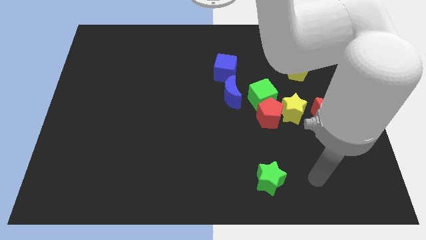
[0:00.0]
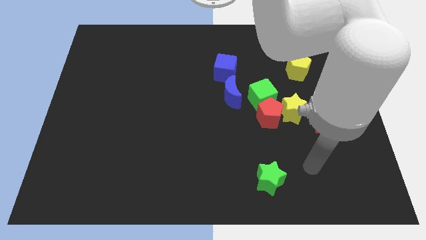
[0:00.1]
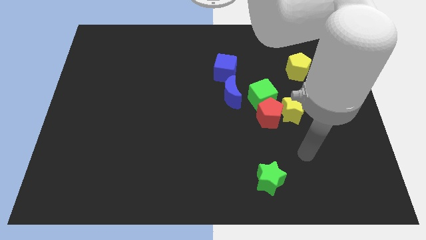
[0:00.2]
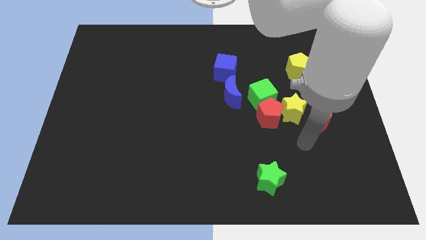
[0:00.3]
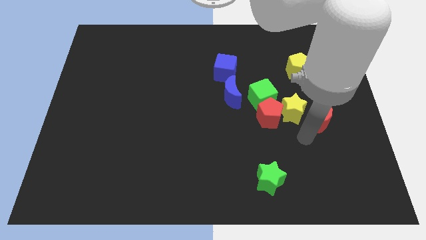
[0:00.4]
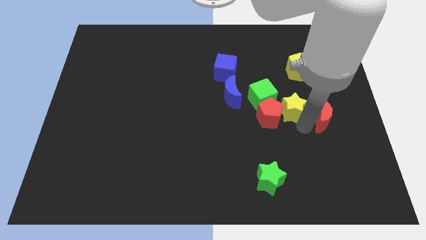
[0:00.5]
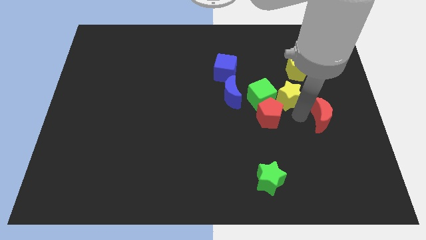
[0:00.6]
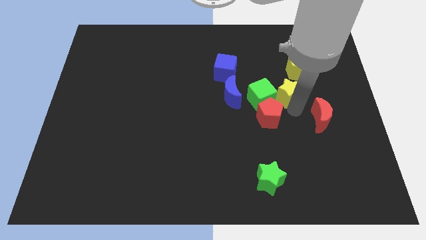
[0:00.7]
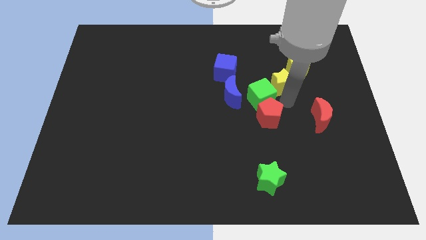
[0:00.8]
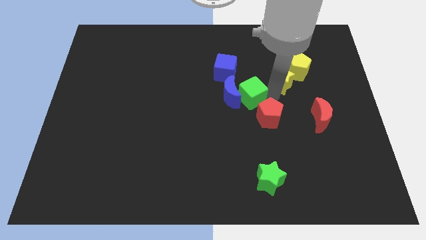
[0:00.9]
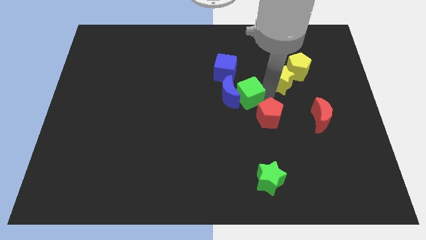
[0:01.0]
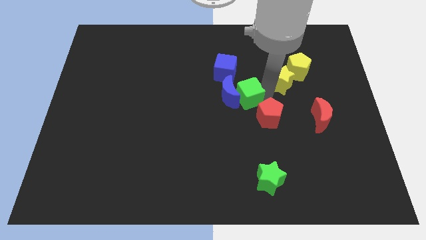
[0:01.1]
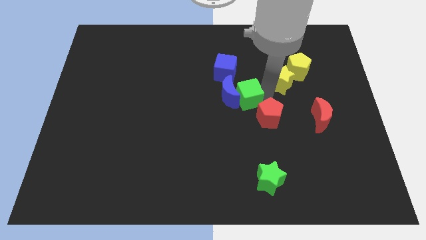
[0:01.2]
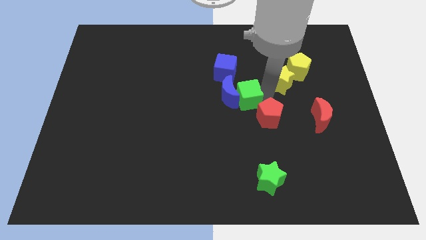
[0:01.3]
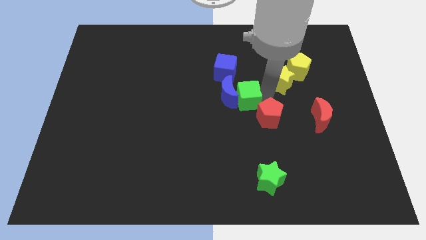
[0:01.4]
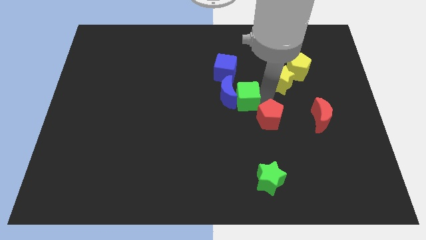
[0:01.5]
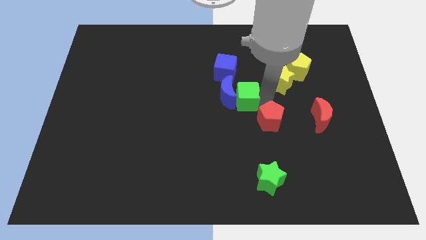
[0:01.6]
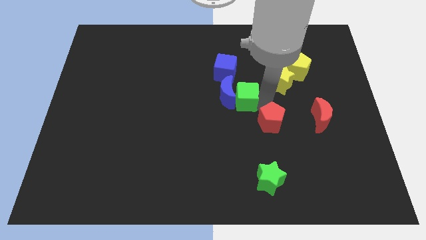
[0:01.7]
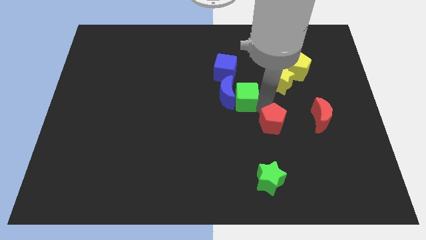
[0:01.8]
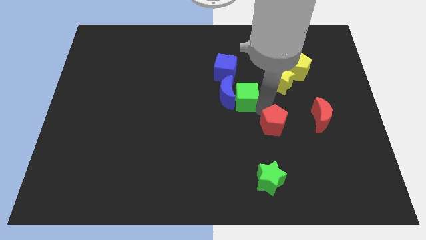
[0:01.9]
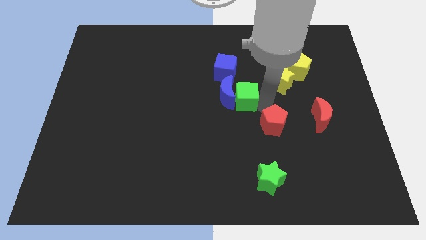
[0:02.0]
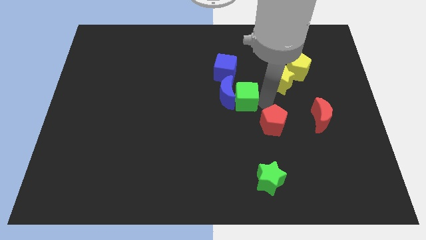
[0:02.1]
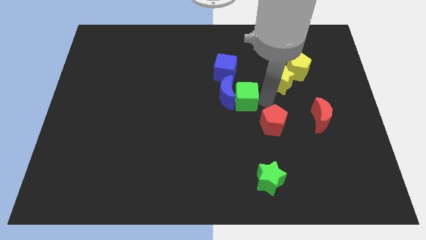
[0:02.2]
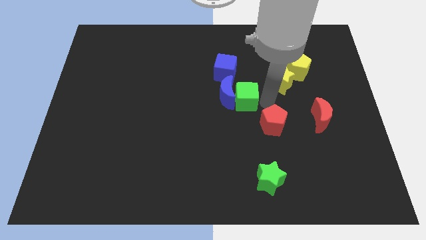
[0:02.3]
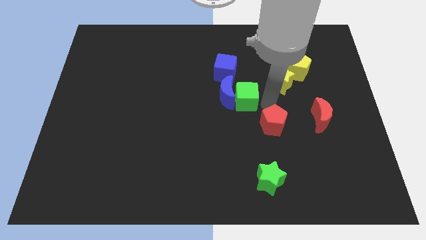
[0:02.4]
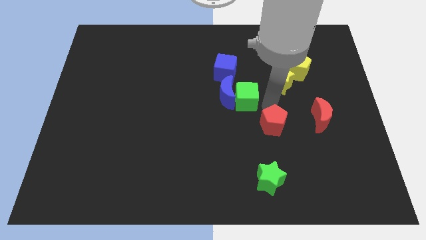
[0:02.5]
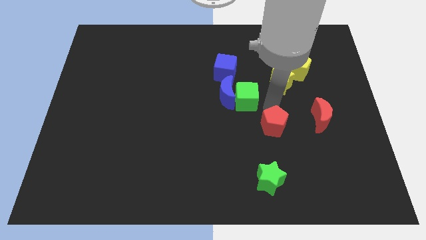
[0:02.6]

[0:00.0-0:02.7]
move the red pentagon away from the green cube and yellow star

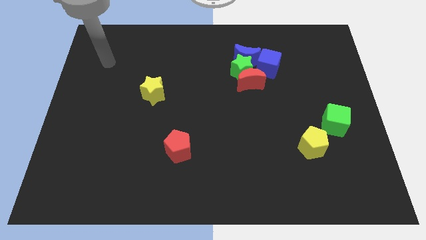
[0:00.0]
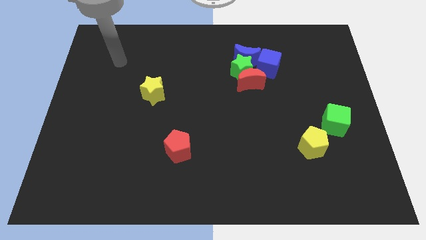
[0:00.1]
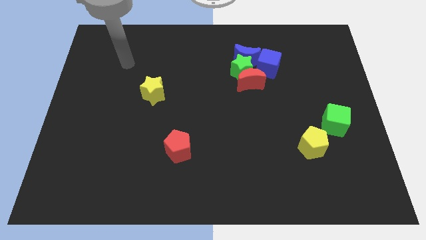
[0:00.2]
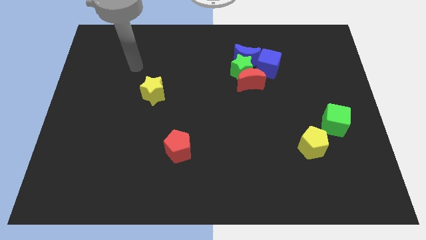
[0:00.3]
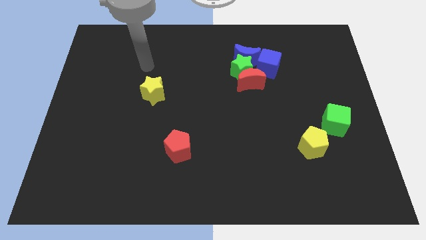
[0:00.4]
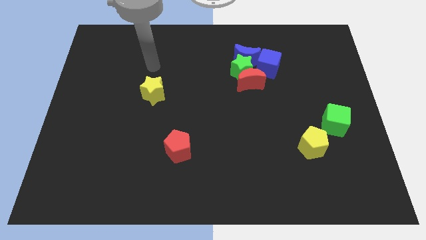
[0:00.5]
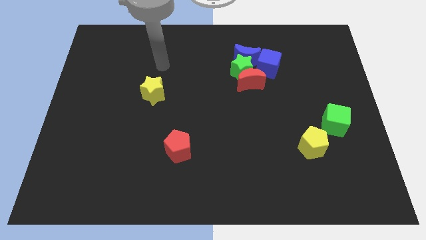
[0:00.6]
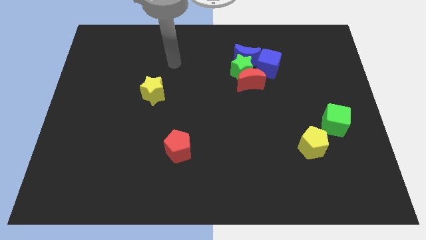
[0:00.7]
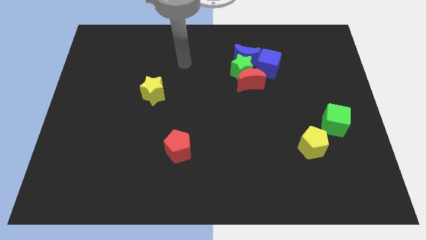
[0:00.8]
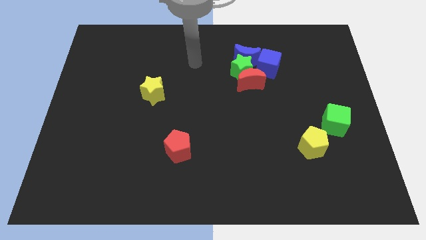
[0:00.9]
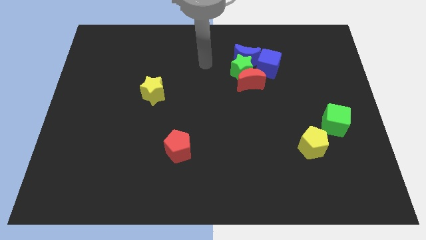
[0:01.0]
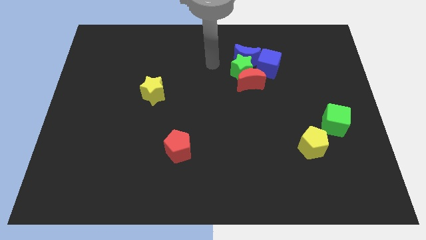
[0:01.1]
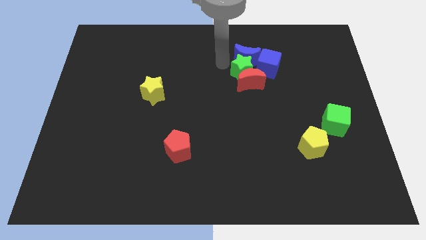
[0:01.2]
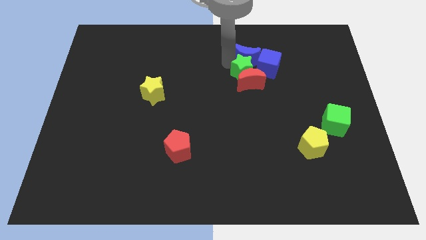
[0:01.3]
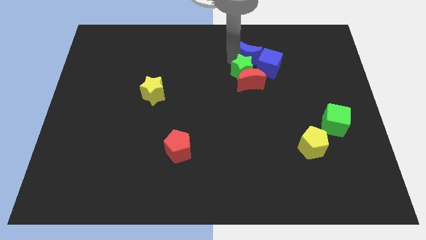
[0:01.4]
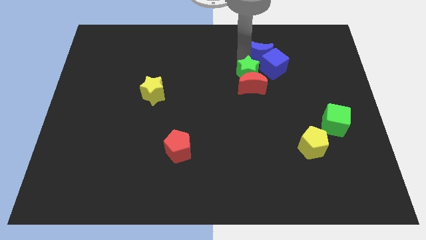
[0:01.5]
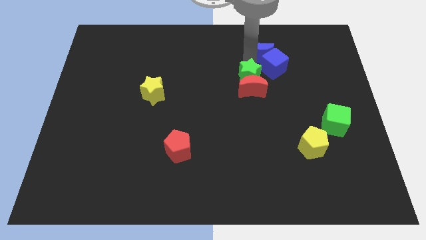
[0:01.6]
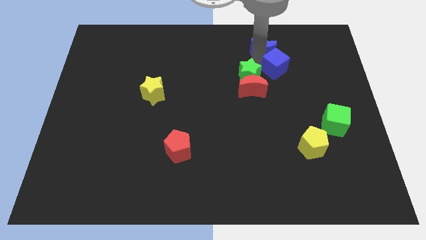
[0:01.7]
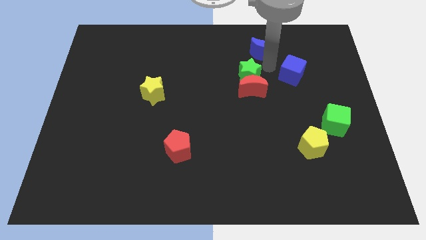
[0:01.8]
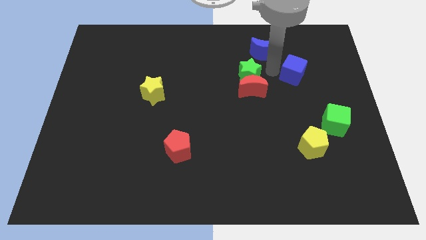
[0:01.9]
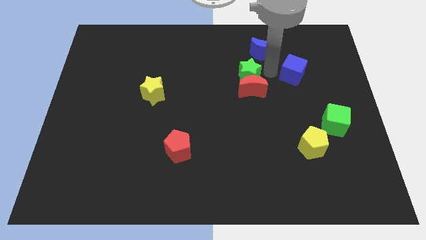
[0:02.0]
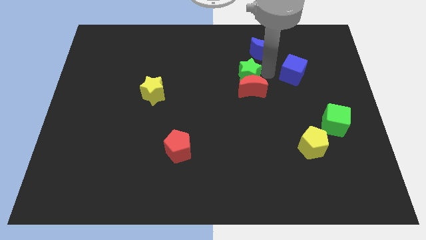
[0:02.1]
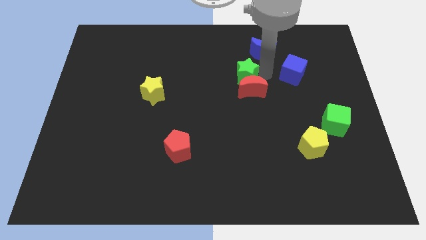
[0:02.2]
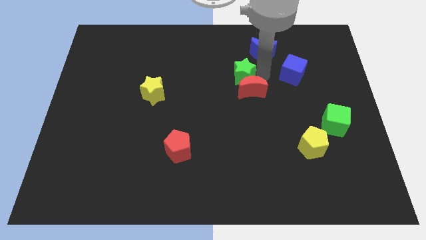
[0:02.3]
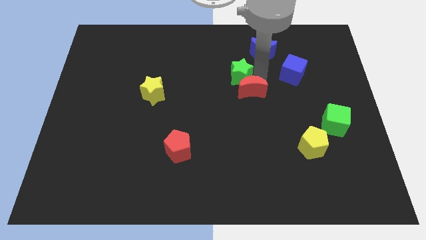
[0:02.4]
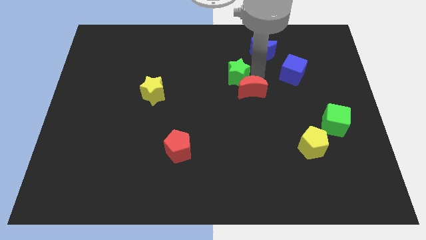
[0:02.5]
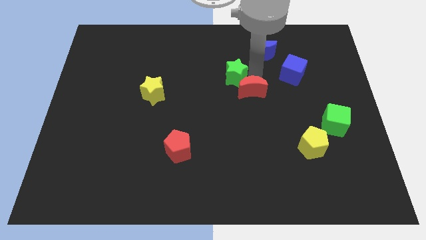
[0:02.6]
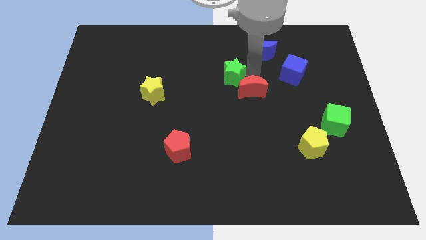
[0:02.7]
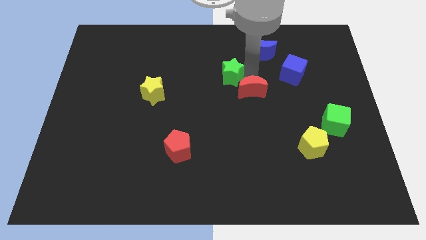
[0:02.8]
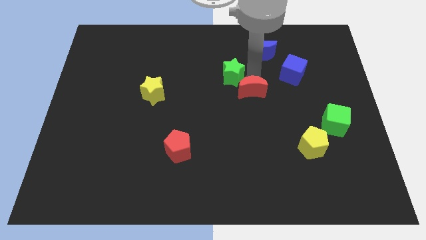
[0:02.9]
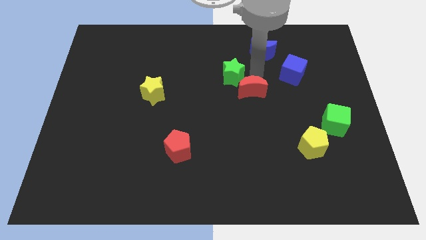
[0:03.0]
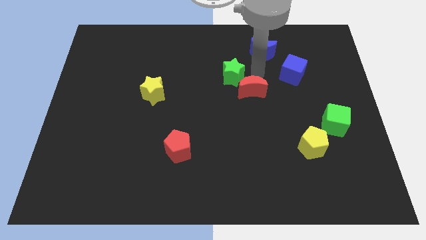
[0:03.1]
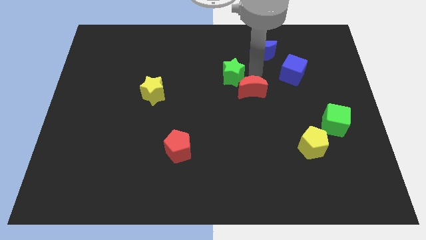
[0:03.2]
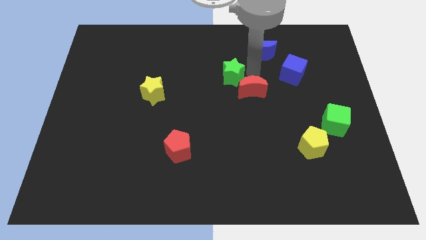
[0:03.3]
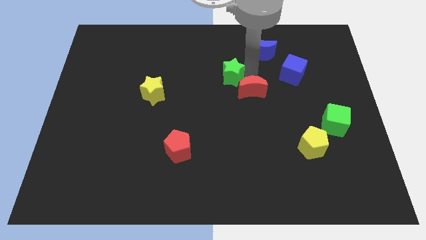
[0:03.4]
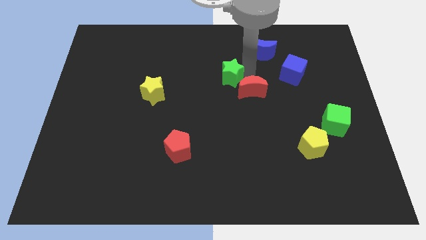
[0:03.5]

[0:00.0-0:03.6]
move the green star away from the group of blocks

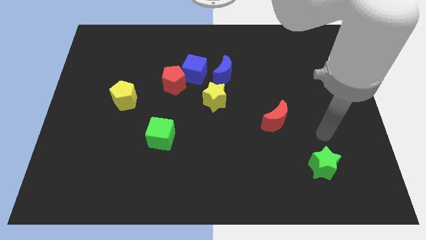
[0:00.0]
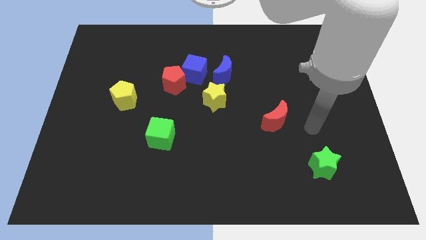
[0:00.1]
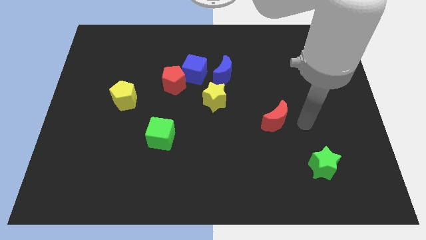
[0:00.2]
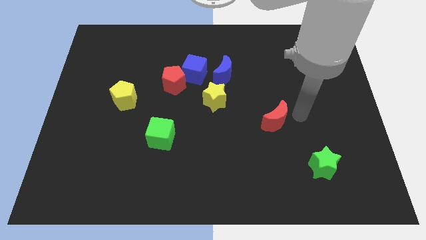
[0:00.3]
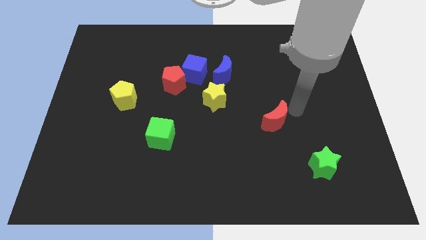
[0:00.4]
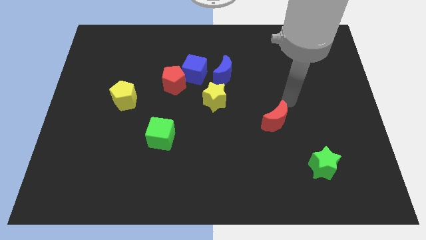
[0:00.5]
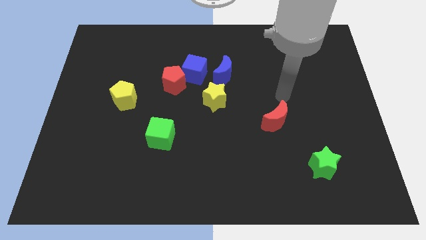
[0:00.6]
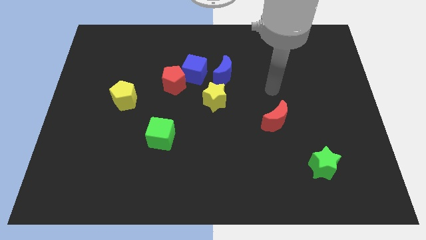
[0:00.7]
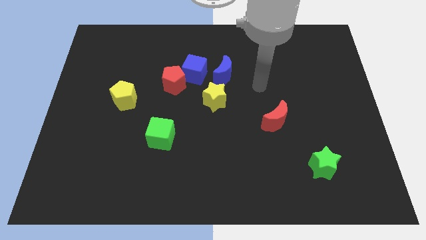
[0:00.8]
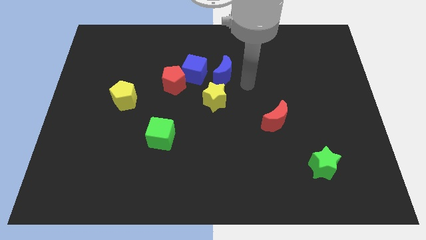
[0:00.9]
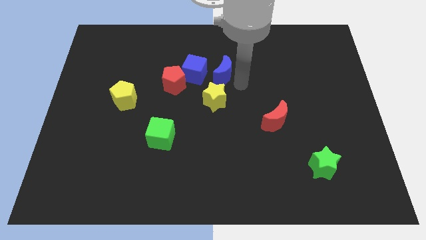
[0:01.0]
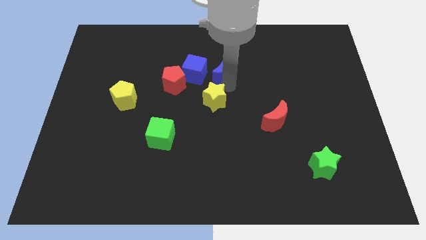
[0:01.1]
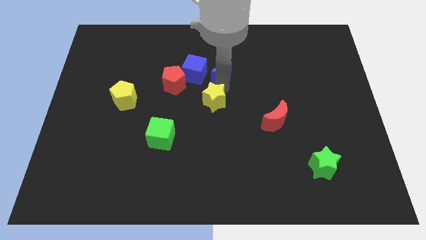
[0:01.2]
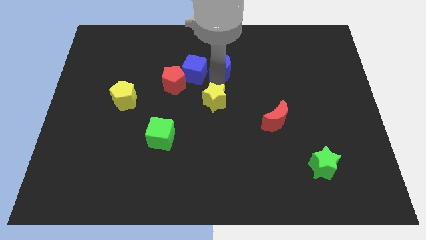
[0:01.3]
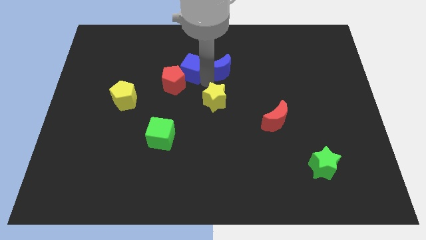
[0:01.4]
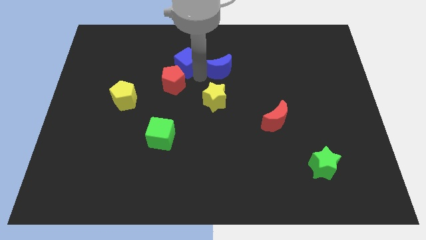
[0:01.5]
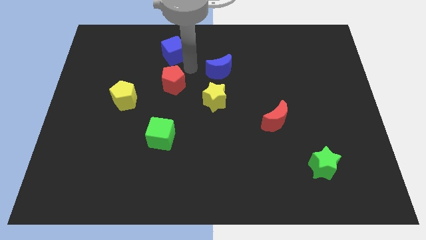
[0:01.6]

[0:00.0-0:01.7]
separate the red pentagon from the blue cube

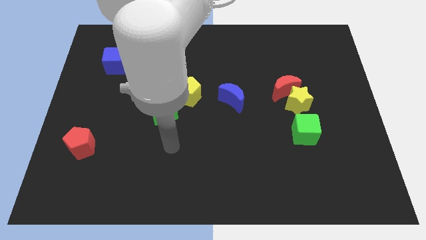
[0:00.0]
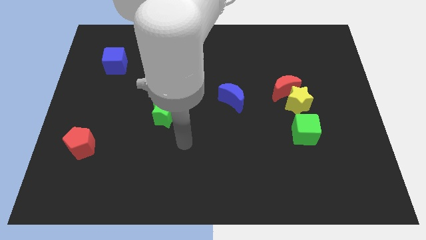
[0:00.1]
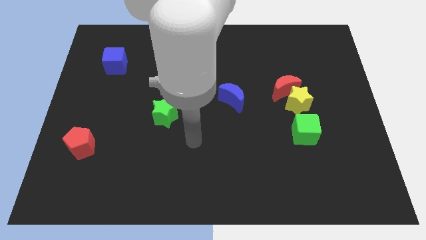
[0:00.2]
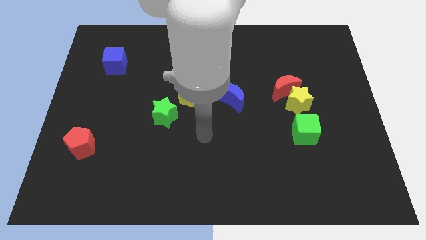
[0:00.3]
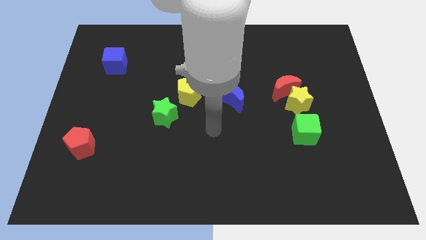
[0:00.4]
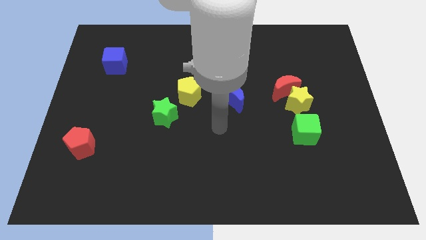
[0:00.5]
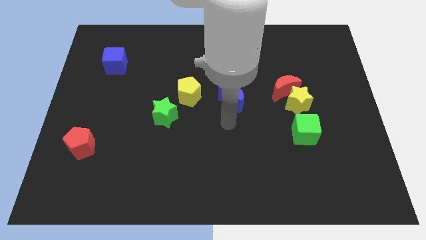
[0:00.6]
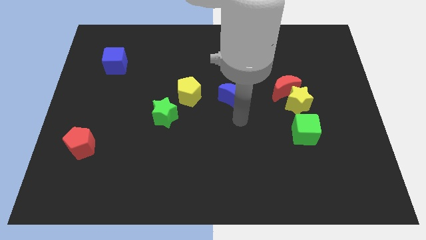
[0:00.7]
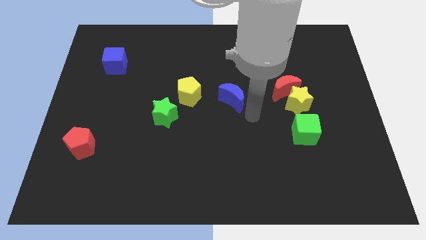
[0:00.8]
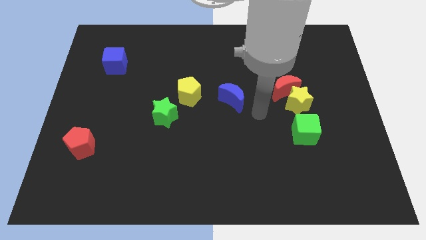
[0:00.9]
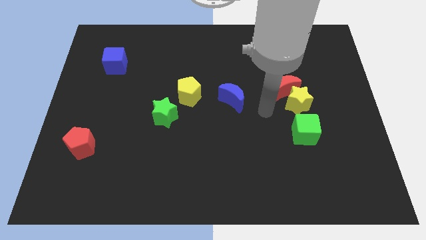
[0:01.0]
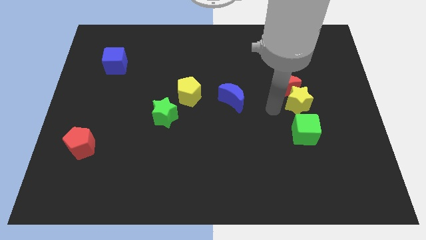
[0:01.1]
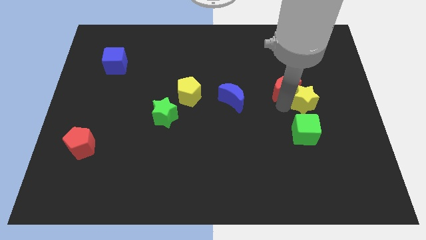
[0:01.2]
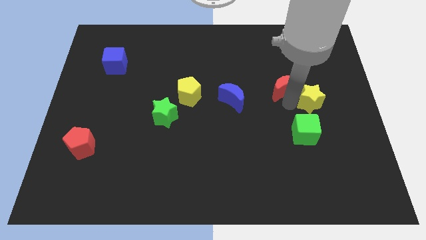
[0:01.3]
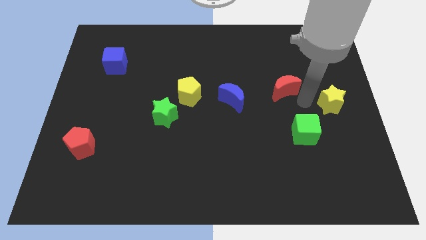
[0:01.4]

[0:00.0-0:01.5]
separate the red moon from the yellow star
